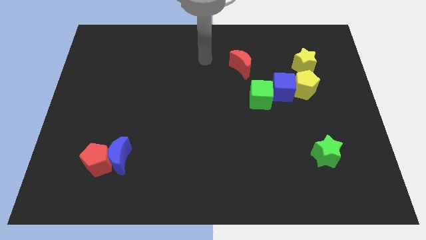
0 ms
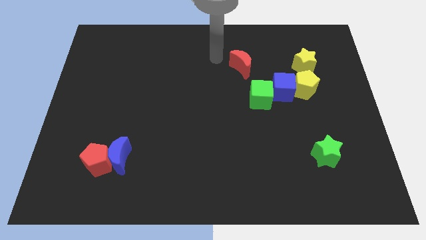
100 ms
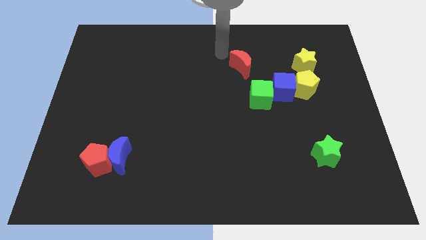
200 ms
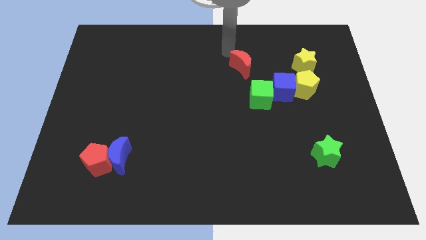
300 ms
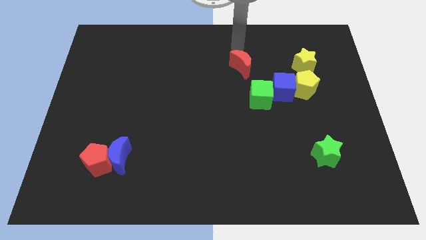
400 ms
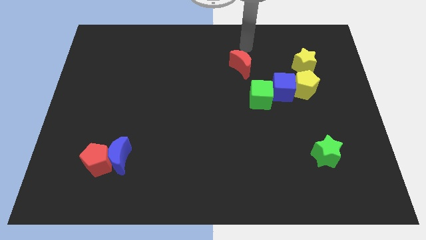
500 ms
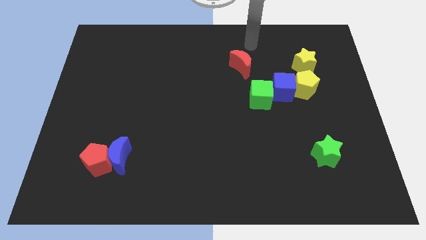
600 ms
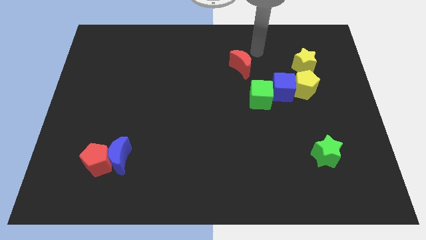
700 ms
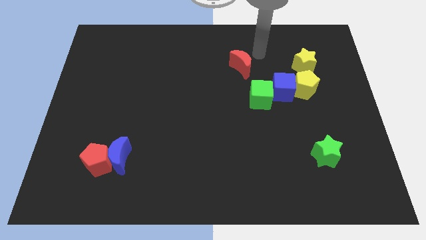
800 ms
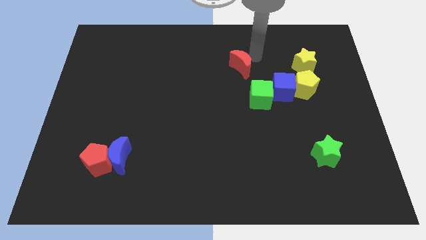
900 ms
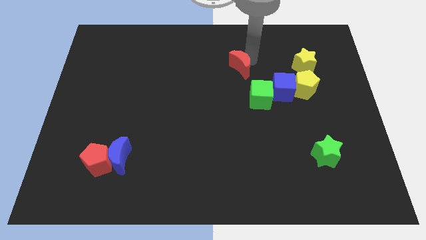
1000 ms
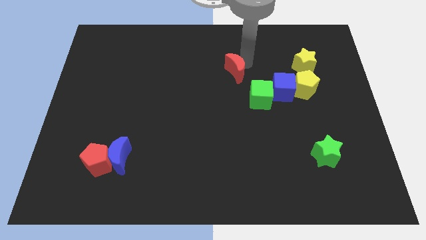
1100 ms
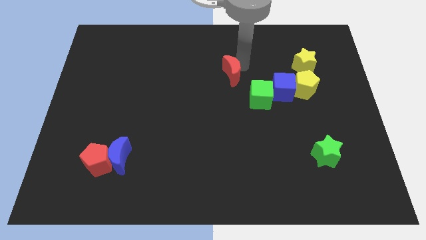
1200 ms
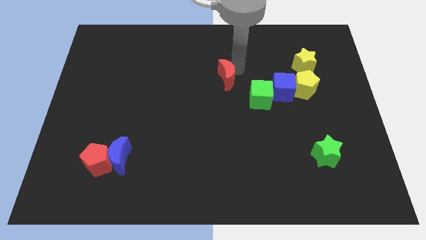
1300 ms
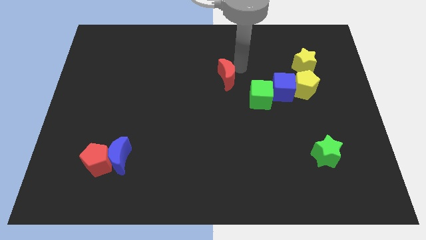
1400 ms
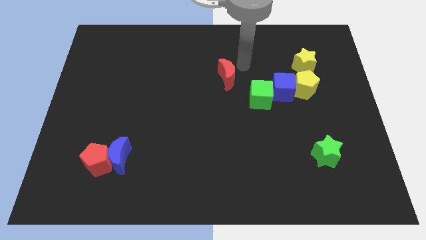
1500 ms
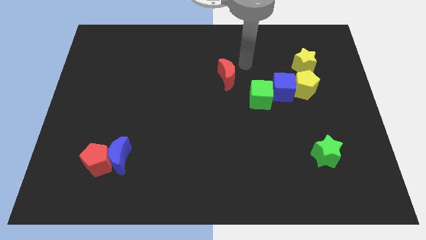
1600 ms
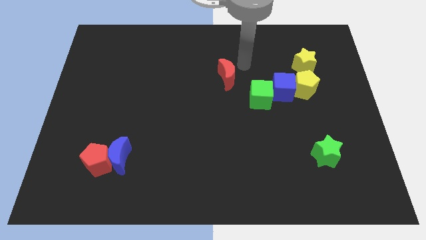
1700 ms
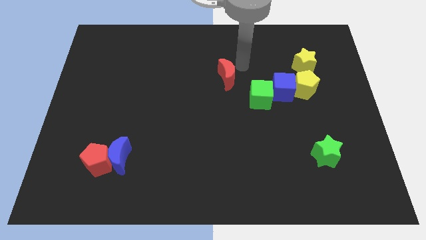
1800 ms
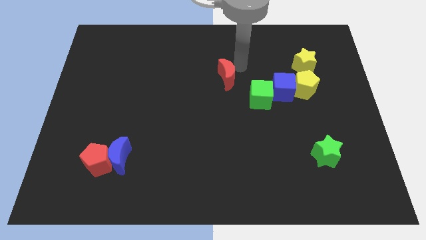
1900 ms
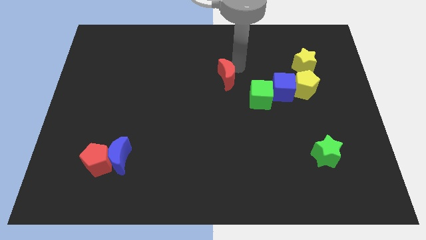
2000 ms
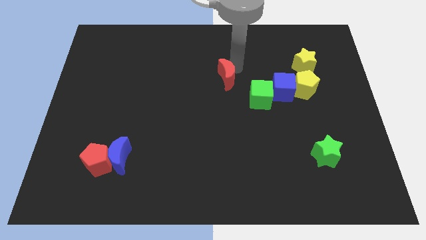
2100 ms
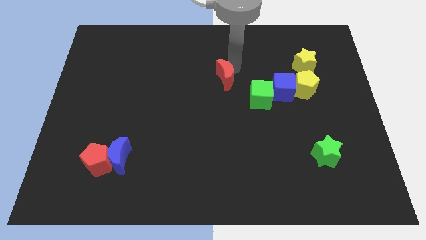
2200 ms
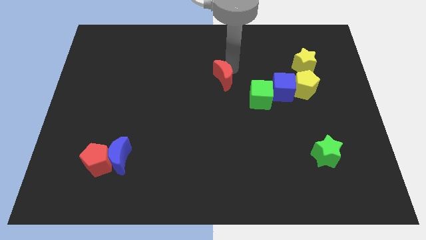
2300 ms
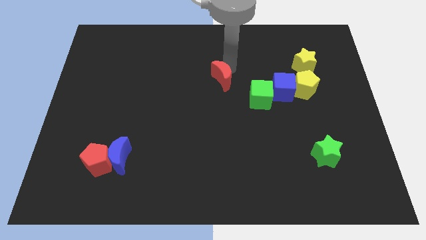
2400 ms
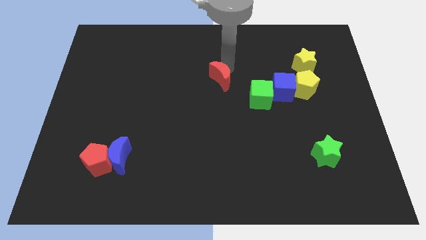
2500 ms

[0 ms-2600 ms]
push the red moon a bit diagonally downwards and to the left

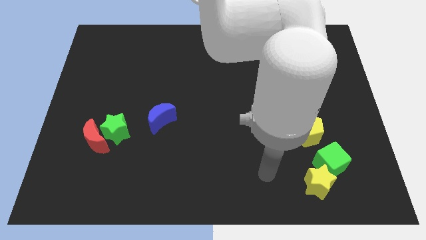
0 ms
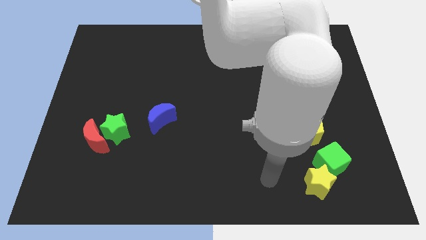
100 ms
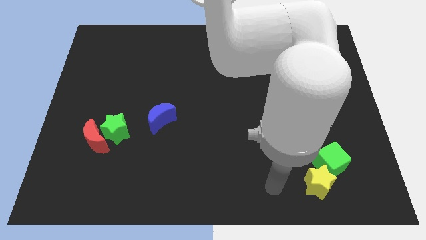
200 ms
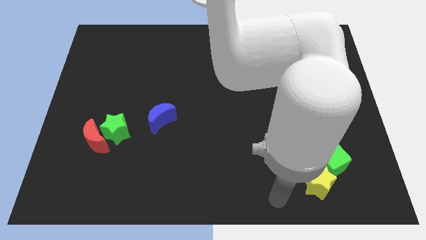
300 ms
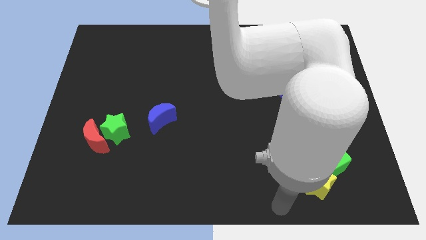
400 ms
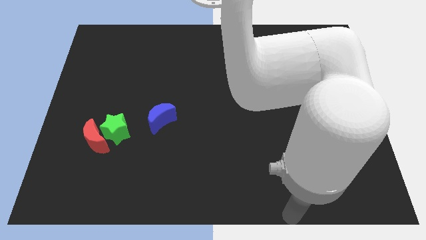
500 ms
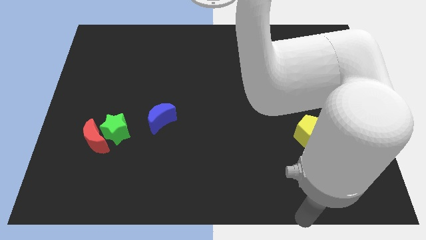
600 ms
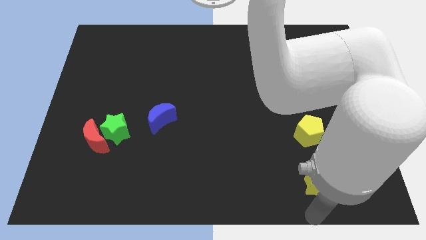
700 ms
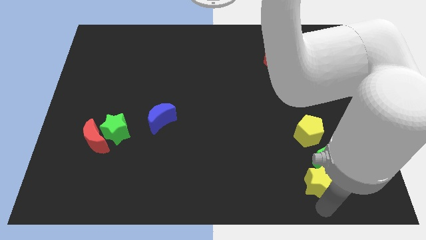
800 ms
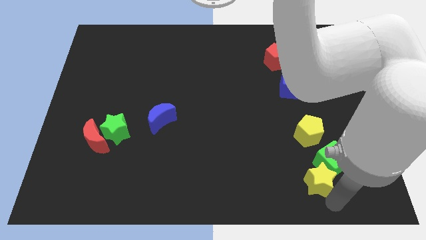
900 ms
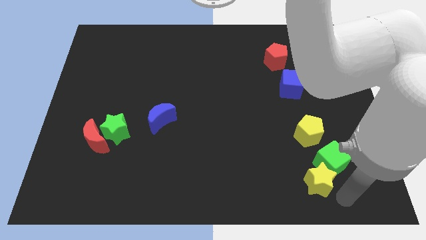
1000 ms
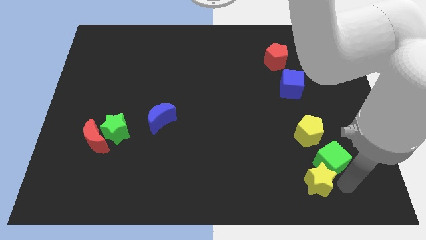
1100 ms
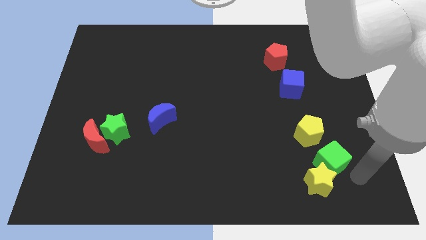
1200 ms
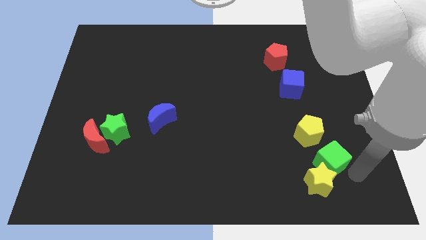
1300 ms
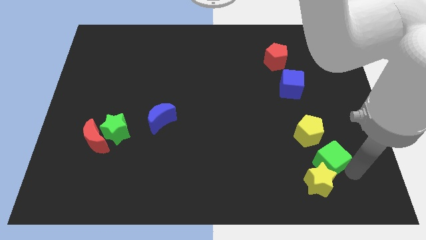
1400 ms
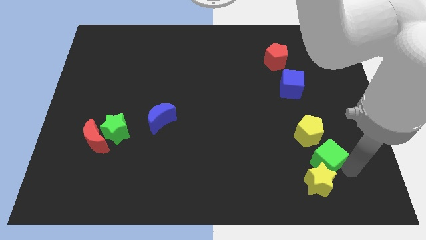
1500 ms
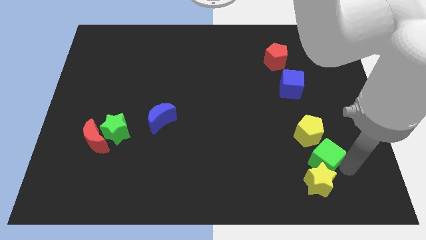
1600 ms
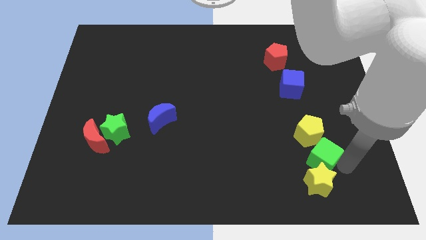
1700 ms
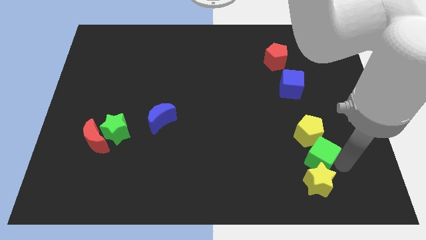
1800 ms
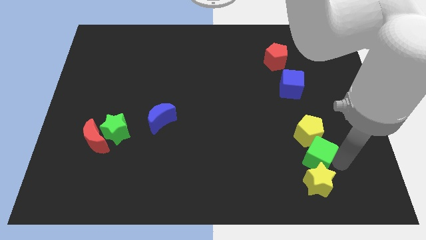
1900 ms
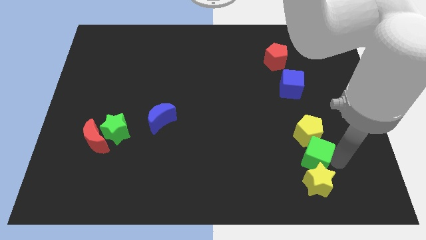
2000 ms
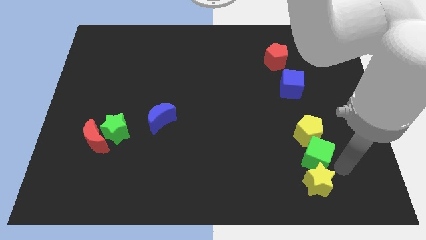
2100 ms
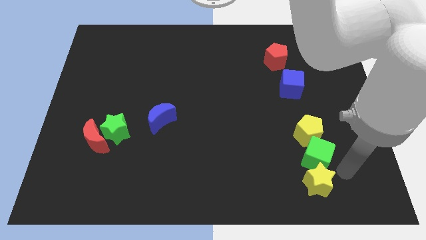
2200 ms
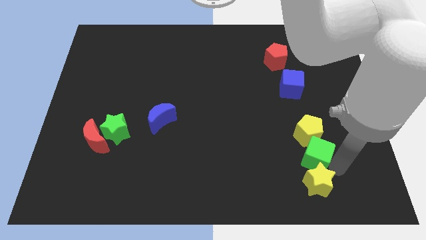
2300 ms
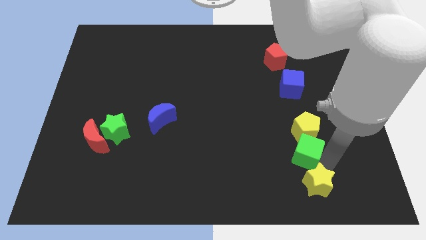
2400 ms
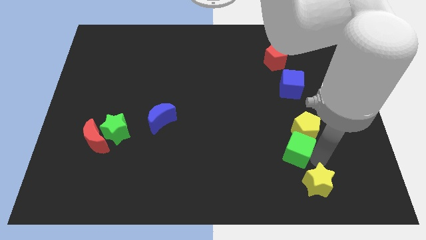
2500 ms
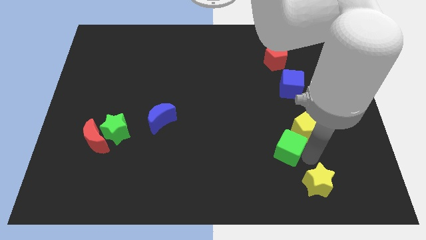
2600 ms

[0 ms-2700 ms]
slightly slide the green cube up and to the left

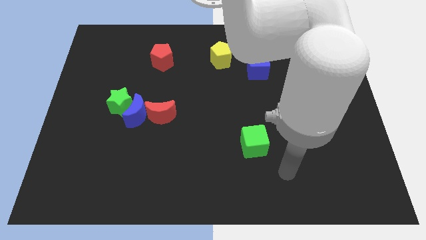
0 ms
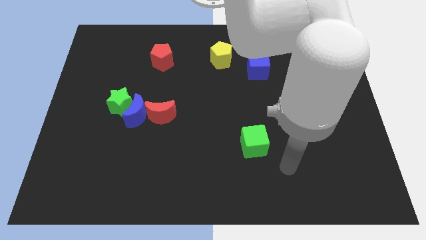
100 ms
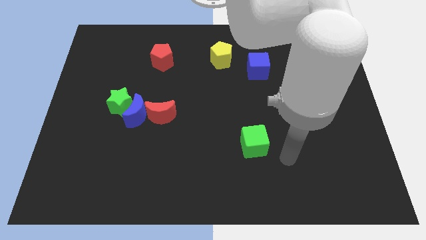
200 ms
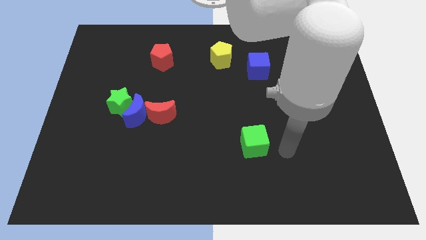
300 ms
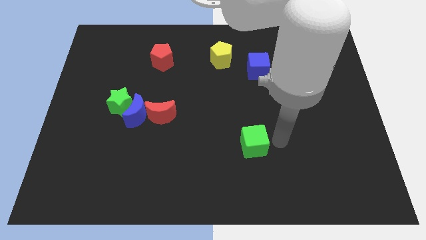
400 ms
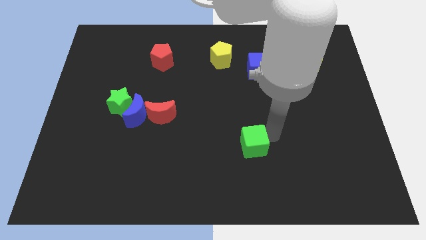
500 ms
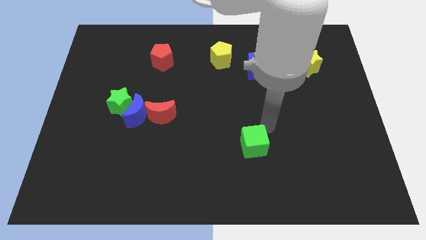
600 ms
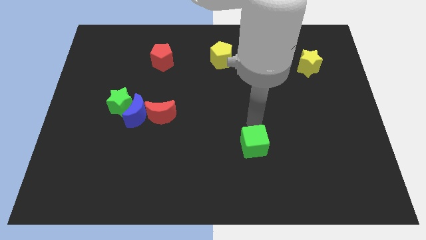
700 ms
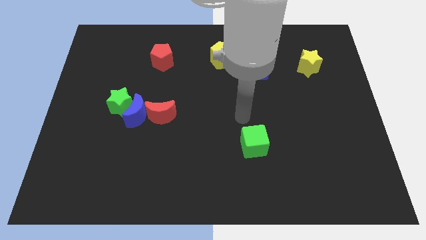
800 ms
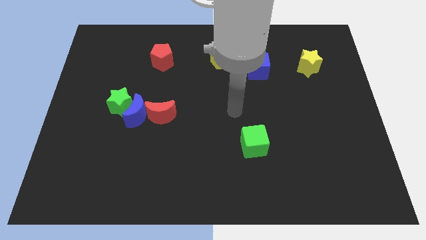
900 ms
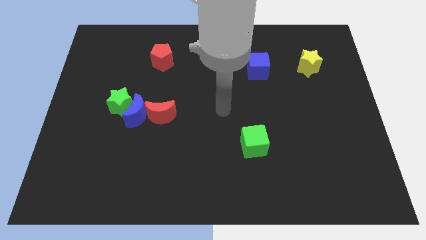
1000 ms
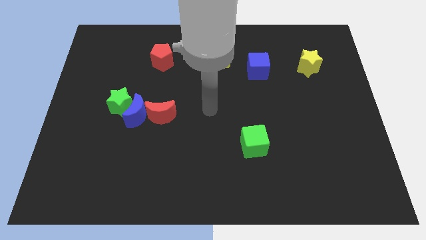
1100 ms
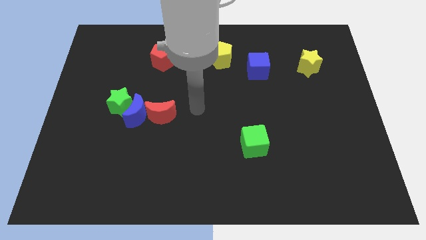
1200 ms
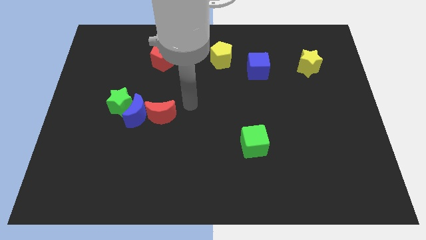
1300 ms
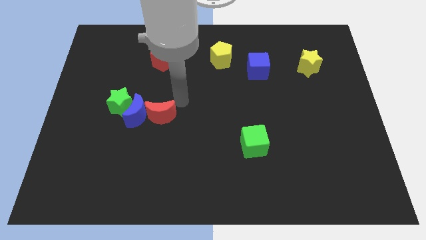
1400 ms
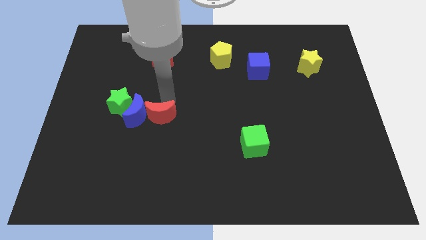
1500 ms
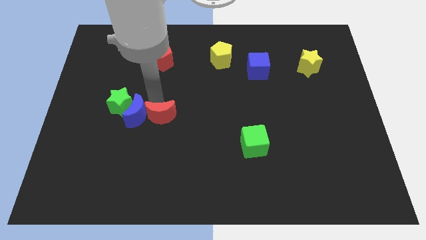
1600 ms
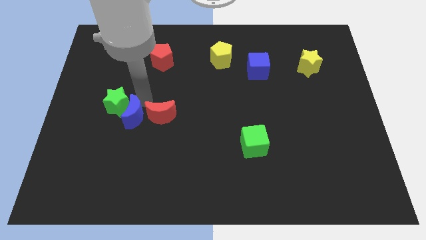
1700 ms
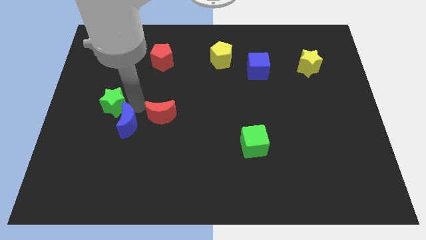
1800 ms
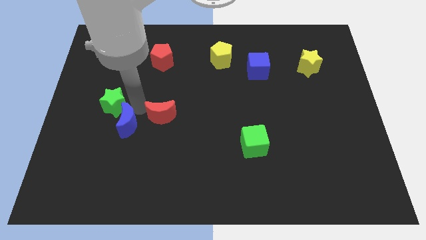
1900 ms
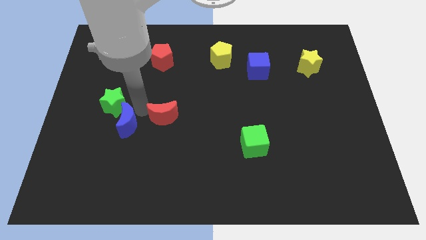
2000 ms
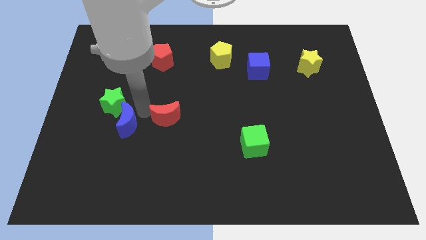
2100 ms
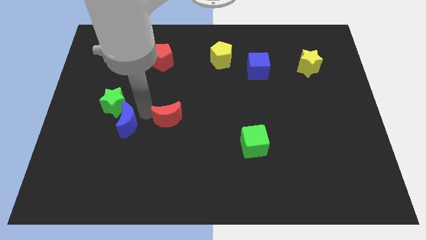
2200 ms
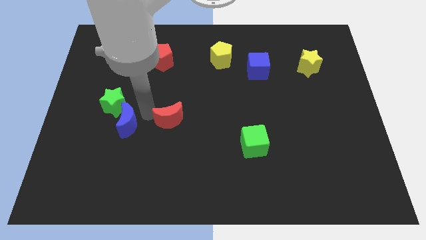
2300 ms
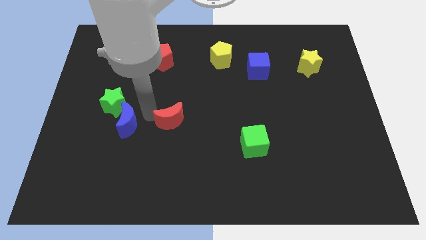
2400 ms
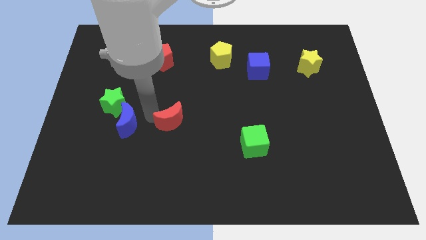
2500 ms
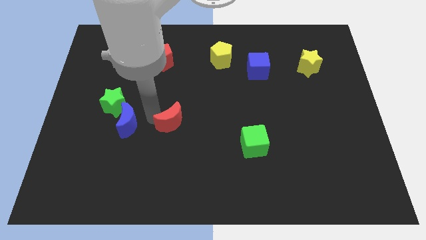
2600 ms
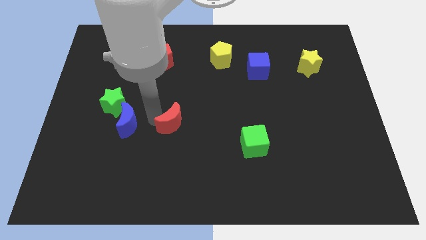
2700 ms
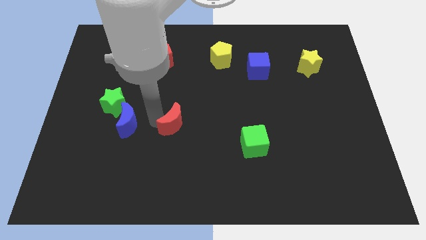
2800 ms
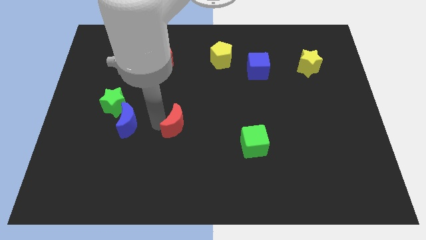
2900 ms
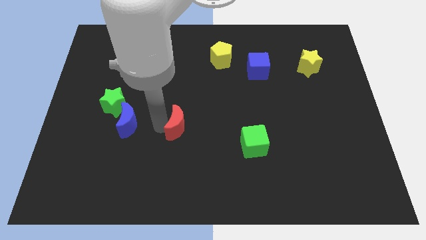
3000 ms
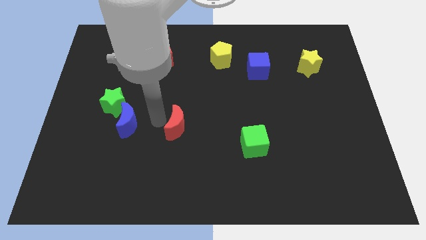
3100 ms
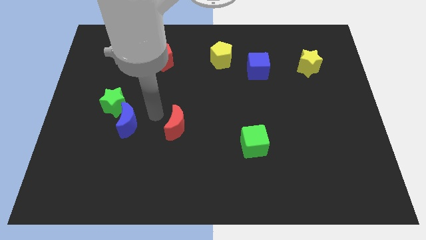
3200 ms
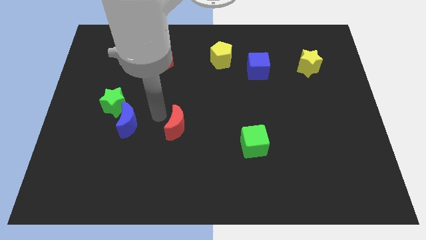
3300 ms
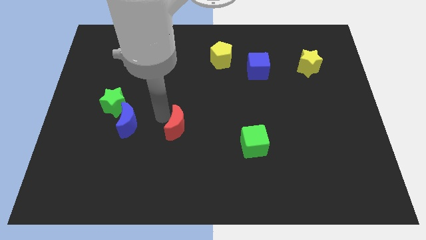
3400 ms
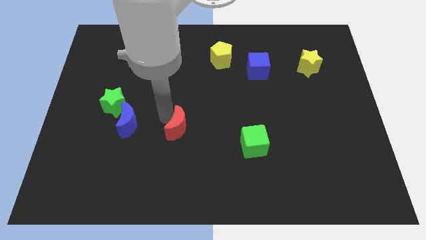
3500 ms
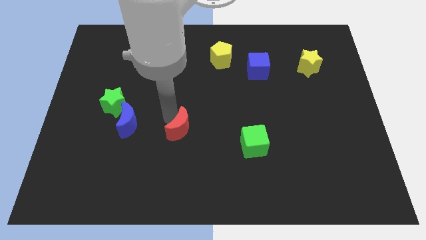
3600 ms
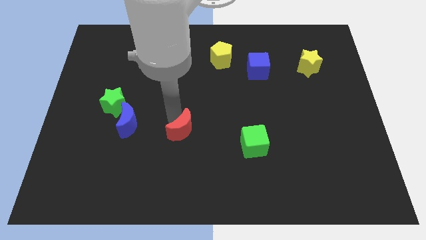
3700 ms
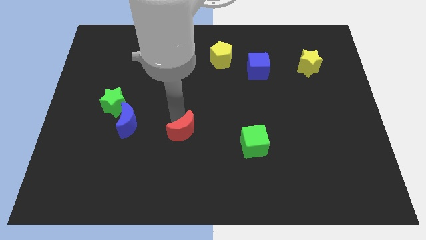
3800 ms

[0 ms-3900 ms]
push the red moon down and to the right diagonally somewhat
